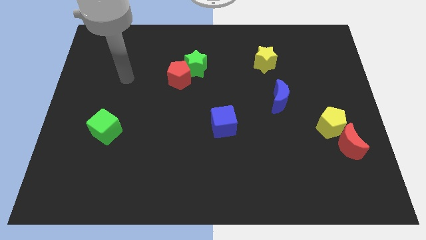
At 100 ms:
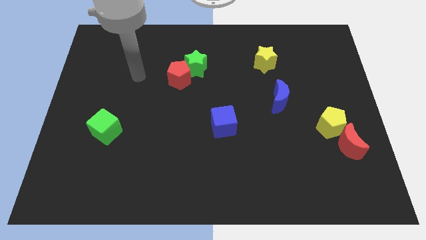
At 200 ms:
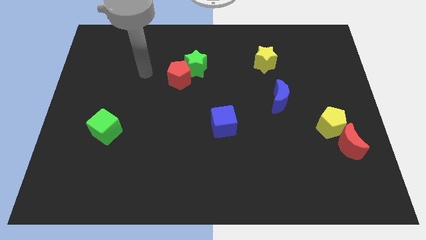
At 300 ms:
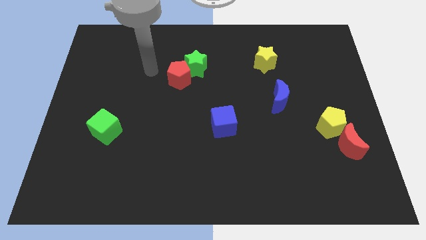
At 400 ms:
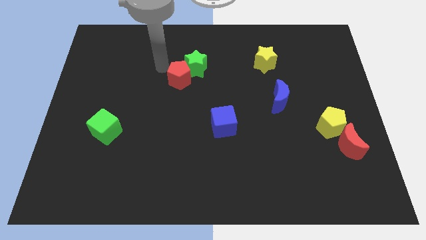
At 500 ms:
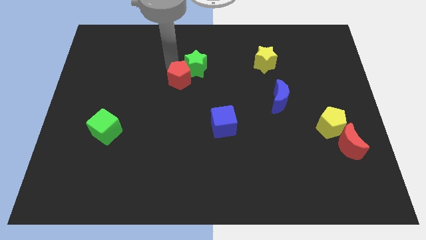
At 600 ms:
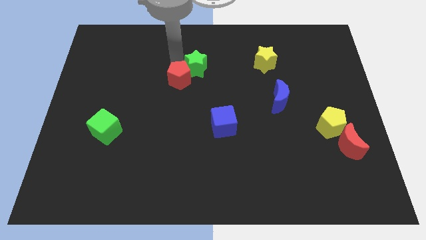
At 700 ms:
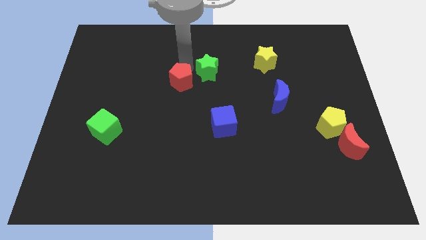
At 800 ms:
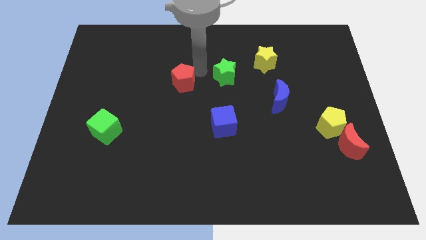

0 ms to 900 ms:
move the red pentagon away from the green star

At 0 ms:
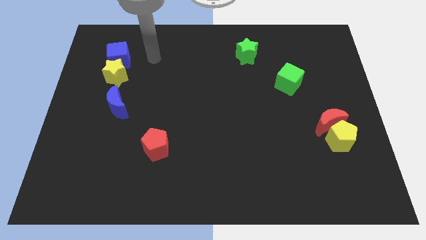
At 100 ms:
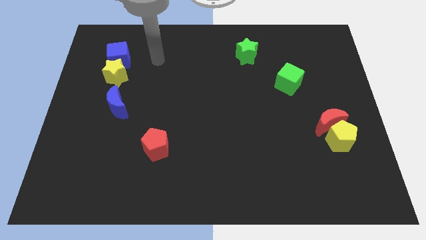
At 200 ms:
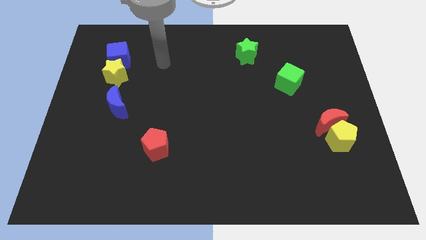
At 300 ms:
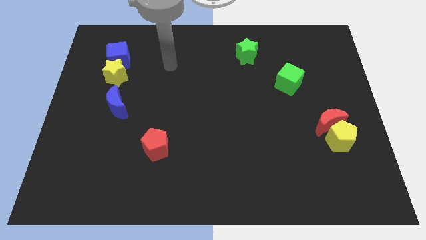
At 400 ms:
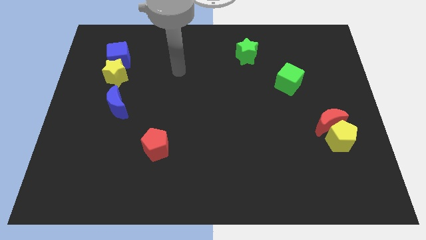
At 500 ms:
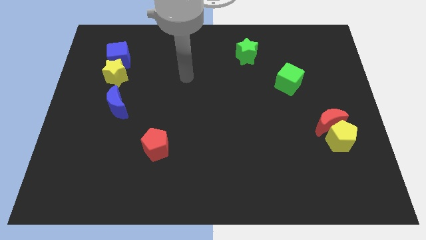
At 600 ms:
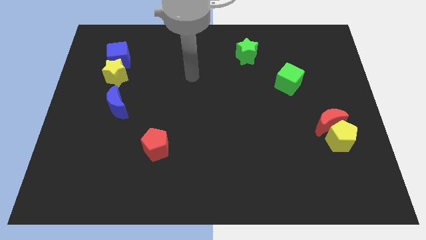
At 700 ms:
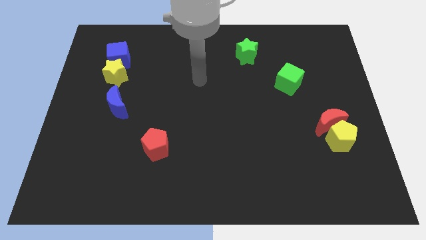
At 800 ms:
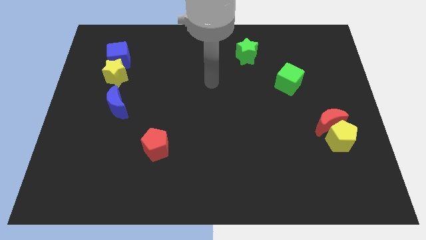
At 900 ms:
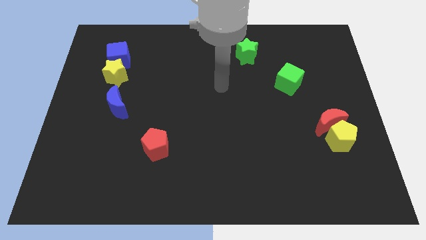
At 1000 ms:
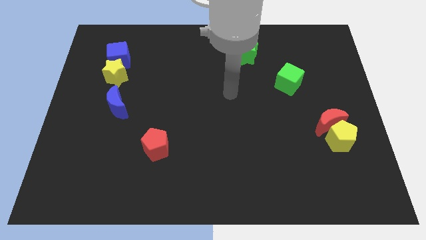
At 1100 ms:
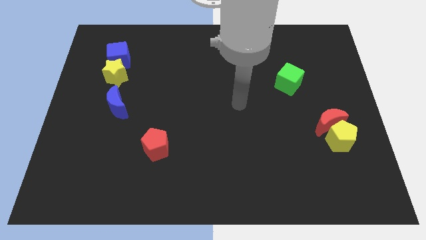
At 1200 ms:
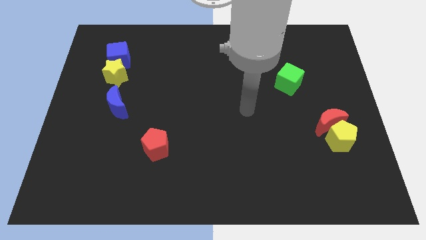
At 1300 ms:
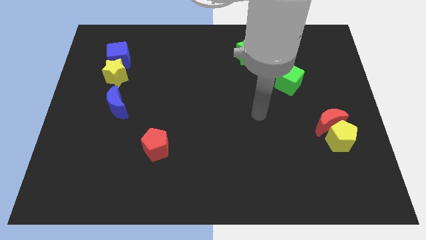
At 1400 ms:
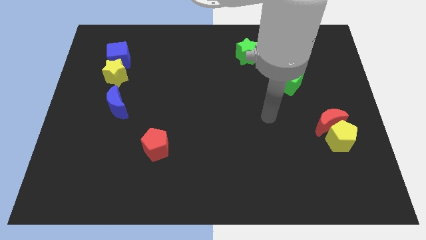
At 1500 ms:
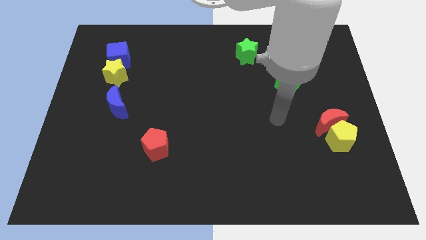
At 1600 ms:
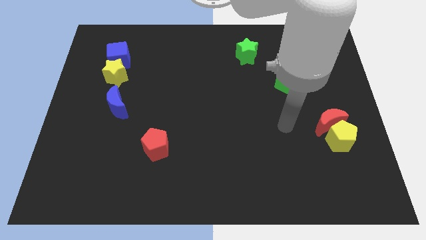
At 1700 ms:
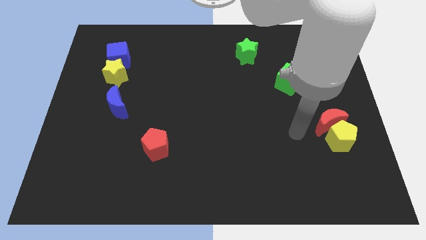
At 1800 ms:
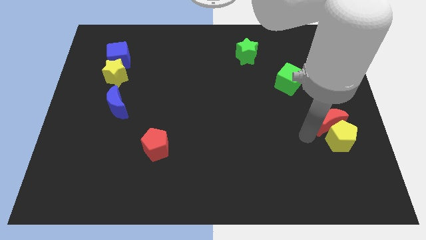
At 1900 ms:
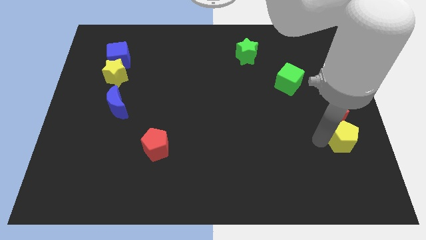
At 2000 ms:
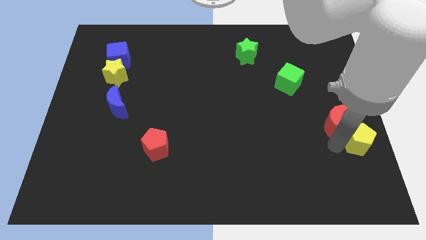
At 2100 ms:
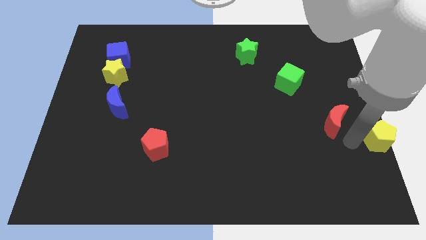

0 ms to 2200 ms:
move the red moon away from the yellow pentagon

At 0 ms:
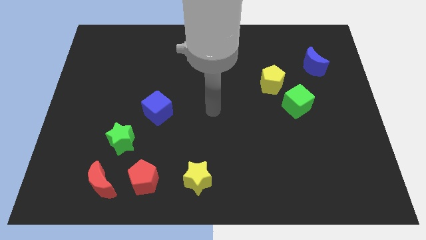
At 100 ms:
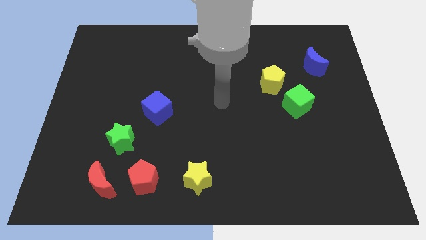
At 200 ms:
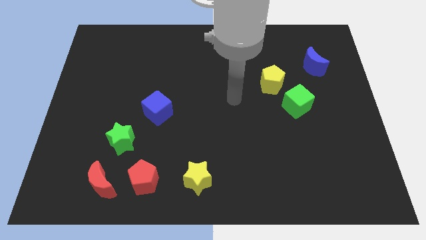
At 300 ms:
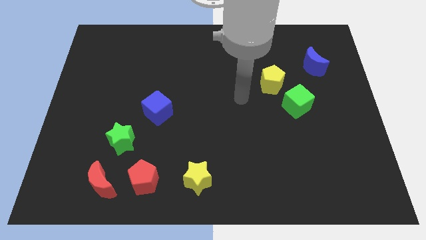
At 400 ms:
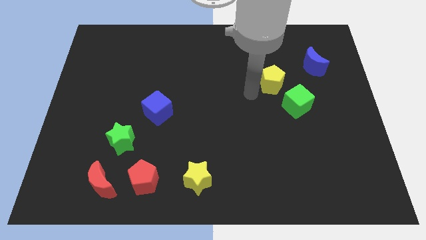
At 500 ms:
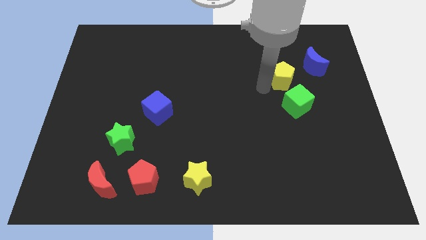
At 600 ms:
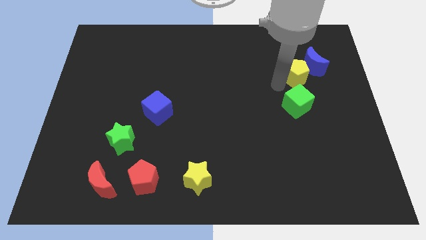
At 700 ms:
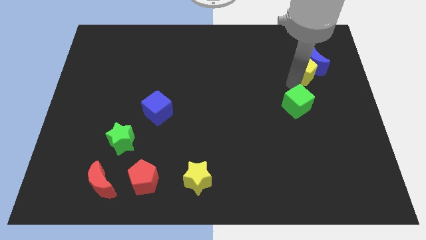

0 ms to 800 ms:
separate the green cube from the yellow pentagon

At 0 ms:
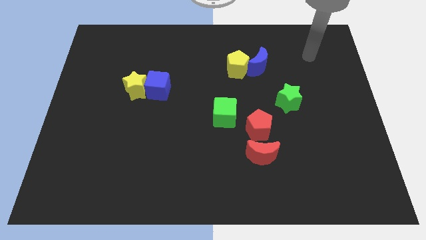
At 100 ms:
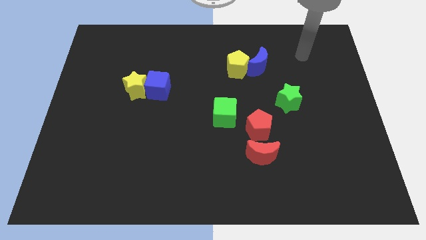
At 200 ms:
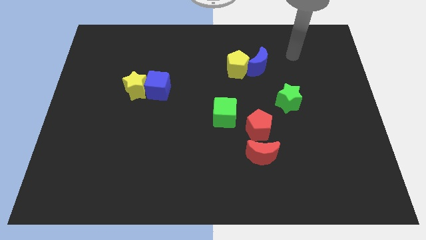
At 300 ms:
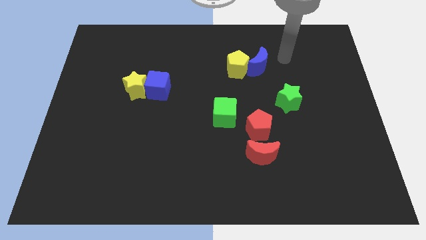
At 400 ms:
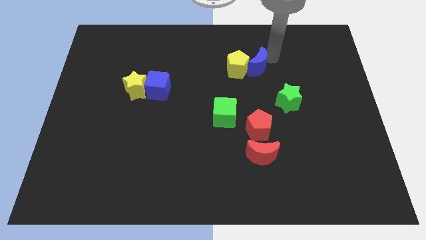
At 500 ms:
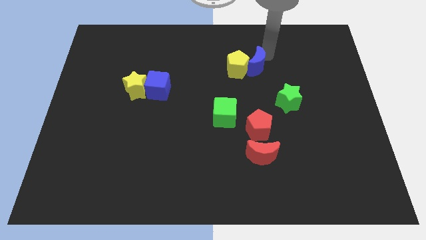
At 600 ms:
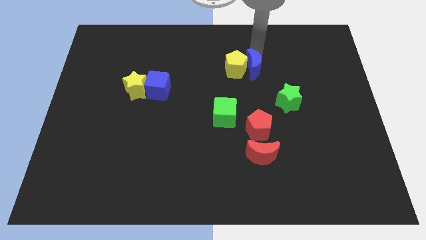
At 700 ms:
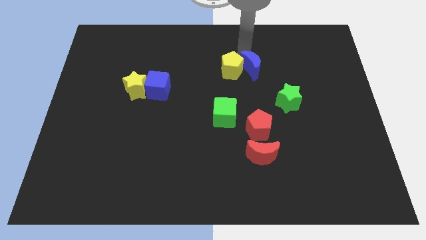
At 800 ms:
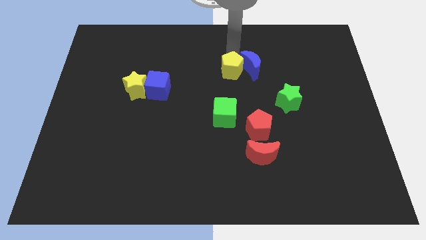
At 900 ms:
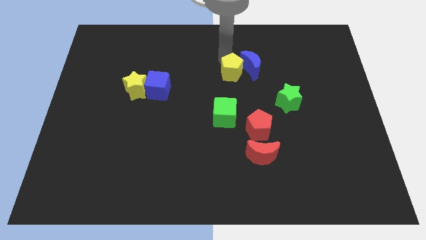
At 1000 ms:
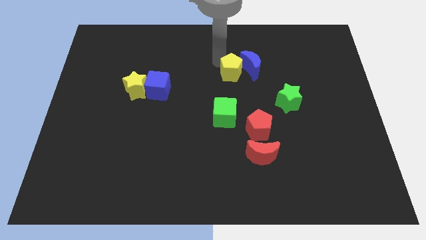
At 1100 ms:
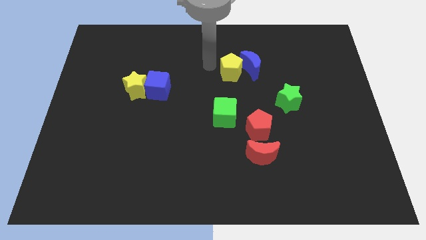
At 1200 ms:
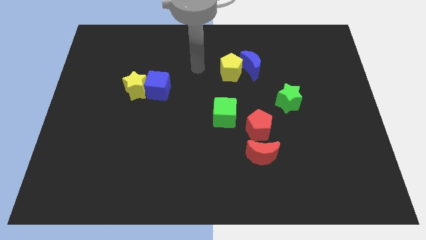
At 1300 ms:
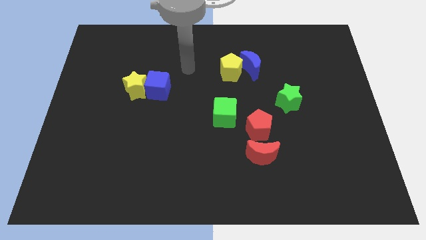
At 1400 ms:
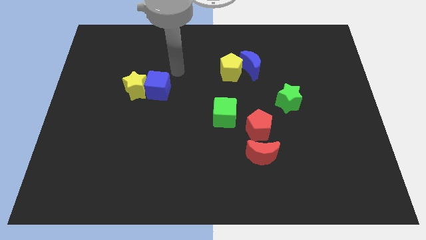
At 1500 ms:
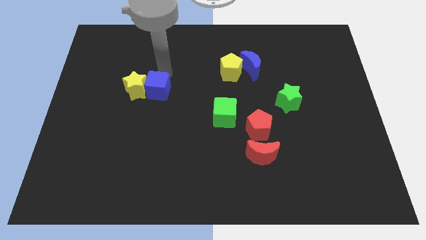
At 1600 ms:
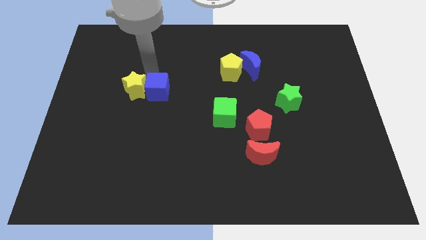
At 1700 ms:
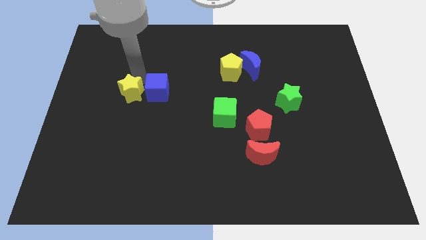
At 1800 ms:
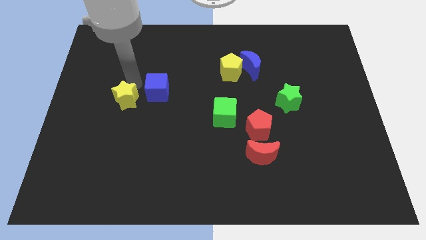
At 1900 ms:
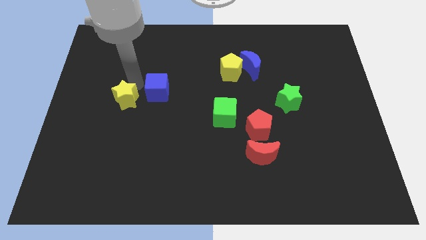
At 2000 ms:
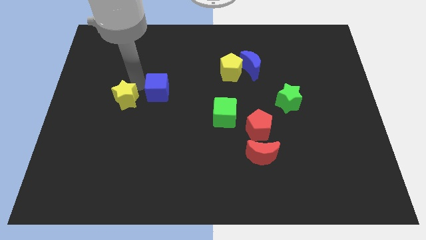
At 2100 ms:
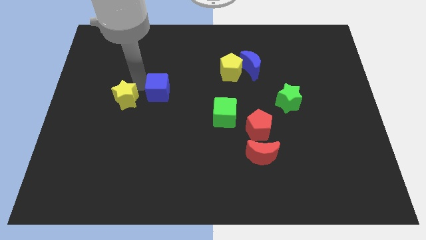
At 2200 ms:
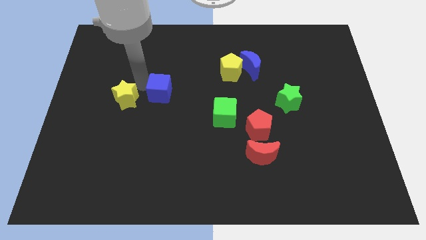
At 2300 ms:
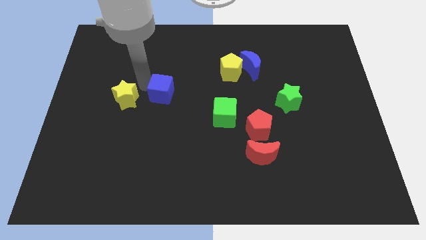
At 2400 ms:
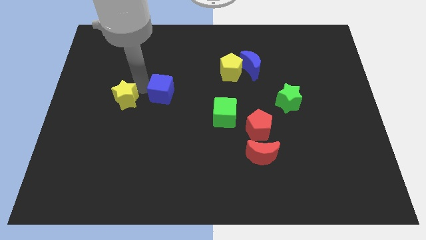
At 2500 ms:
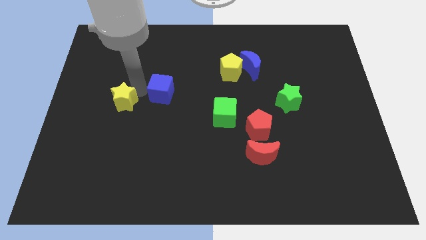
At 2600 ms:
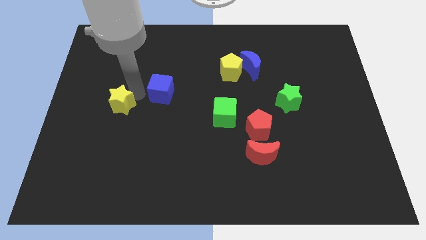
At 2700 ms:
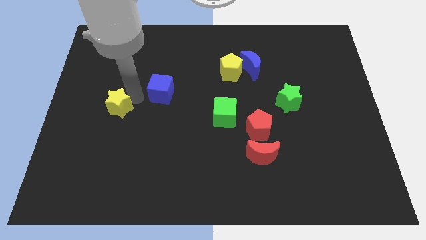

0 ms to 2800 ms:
pull the blue cube apart from the yellow star

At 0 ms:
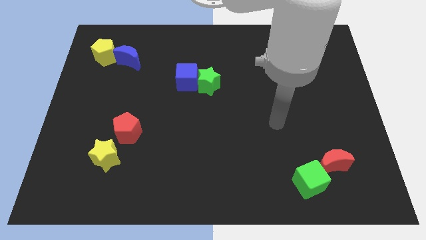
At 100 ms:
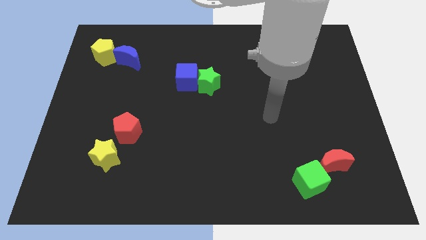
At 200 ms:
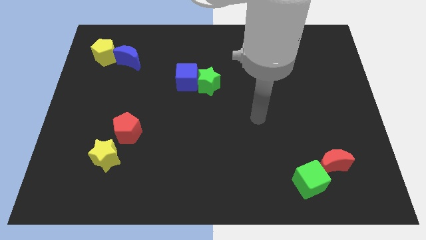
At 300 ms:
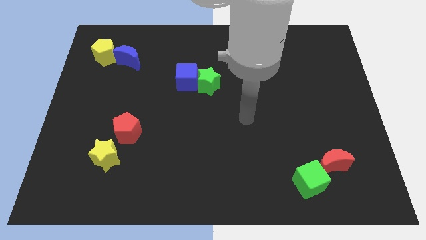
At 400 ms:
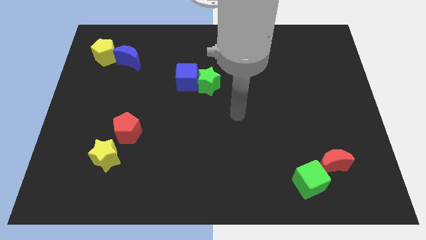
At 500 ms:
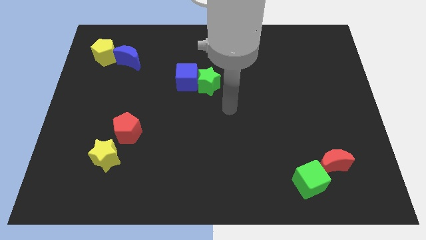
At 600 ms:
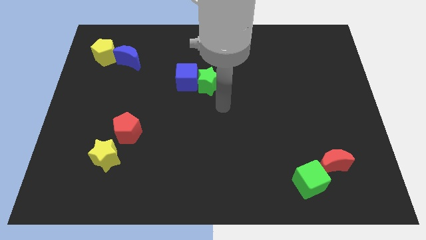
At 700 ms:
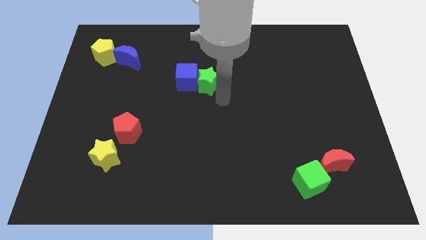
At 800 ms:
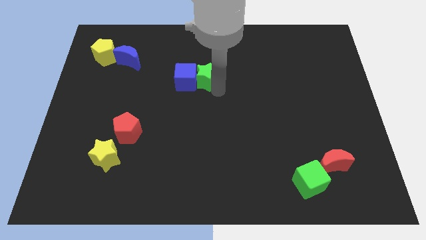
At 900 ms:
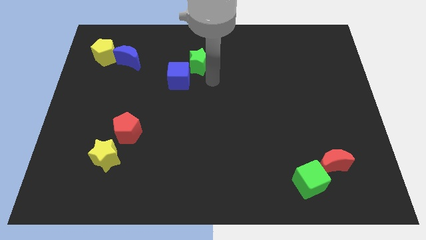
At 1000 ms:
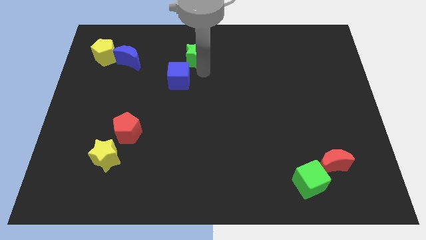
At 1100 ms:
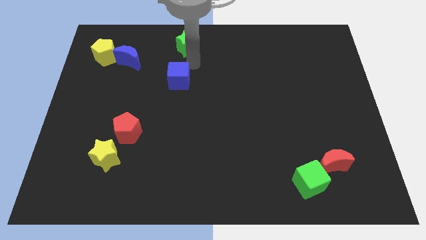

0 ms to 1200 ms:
separate the blue cube from the green star

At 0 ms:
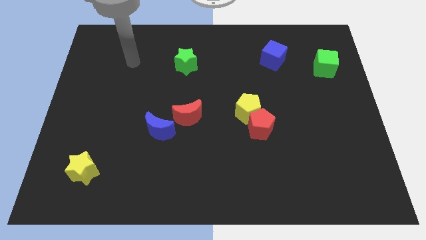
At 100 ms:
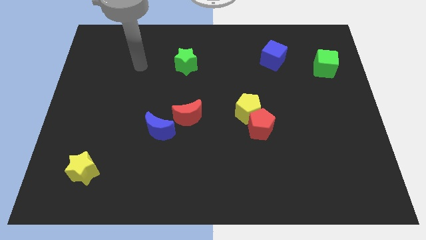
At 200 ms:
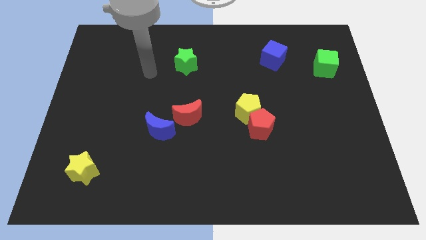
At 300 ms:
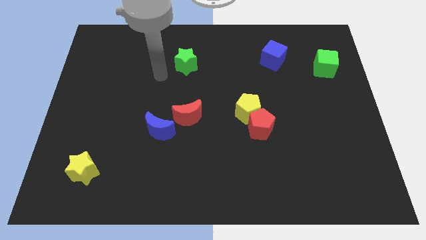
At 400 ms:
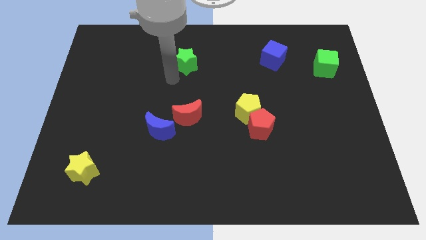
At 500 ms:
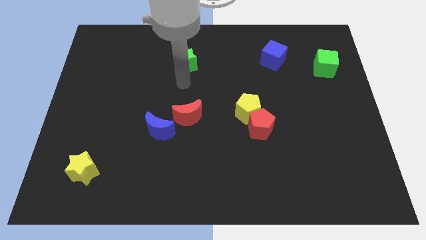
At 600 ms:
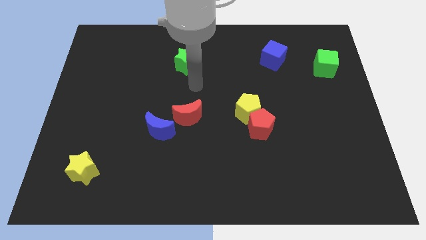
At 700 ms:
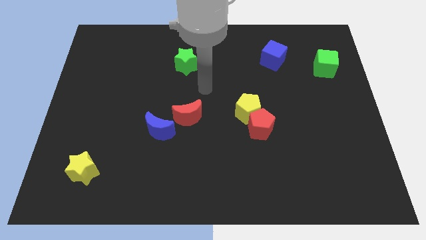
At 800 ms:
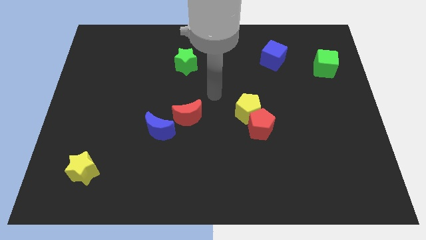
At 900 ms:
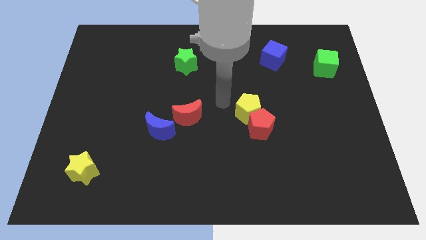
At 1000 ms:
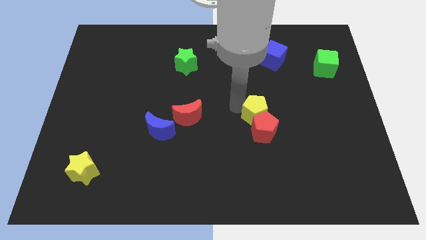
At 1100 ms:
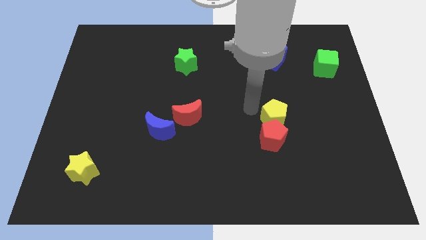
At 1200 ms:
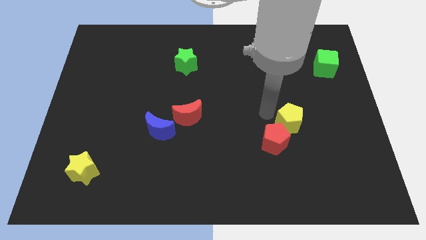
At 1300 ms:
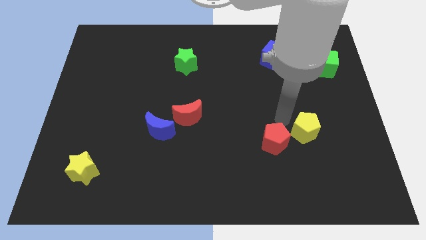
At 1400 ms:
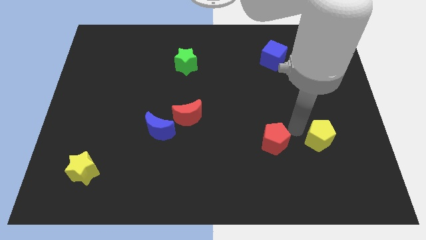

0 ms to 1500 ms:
move the red pentagon away from the yellow pentagon
